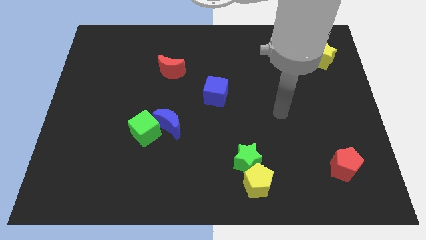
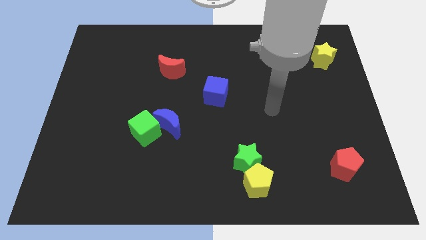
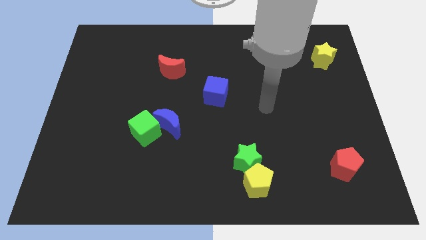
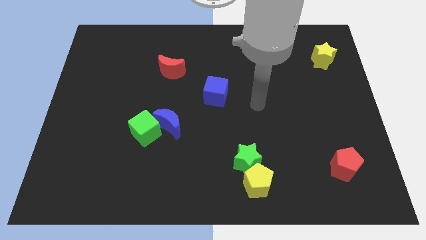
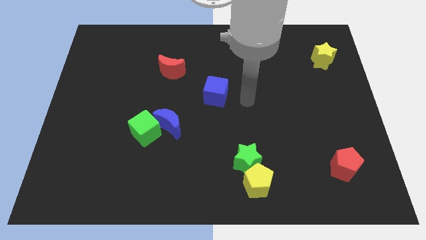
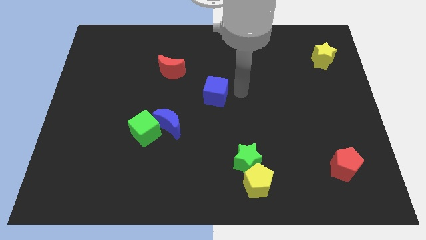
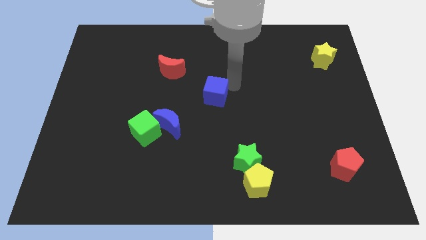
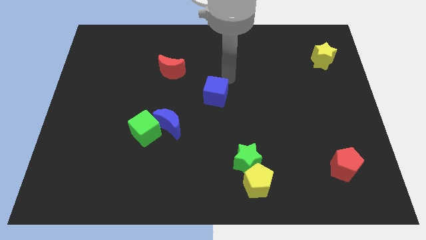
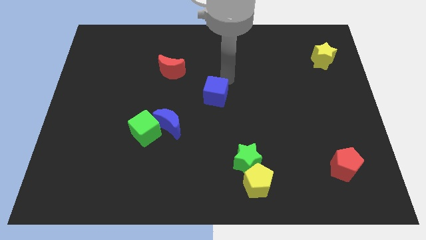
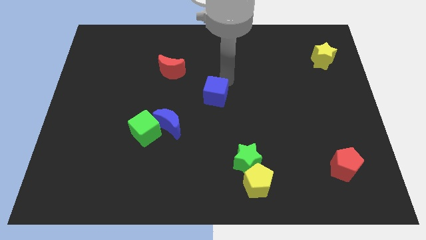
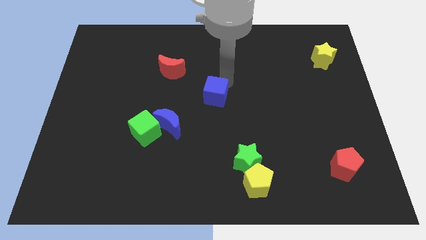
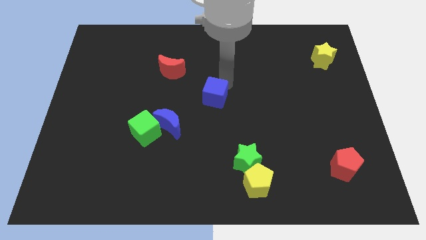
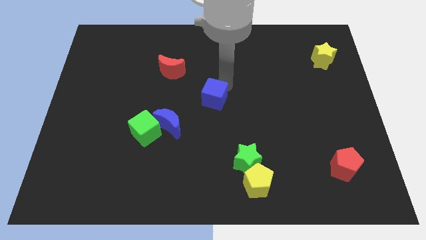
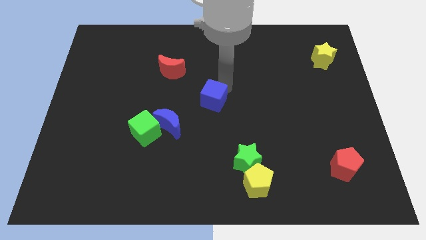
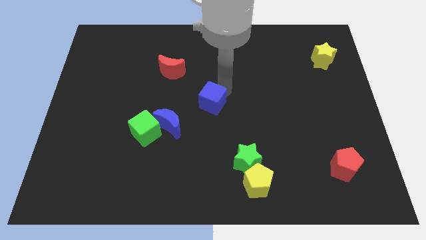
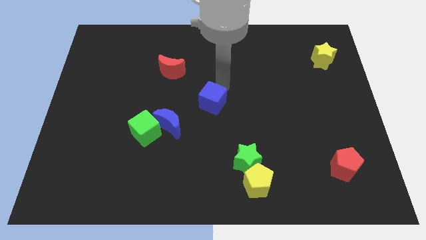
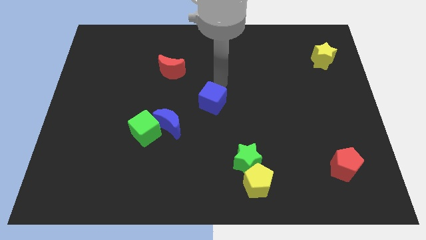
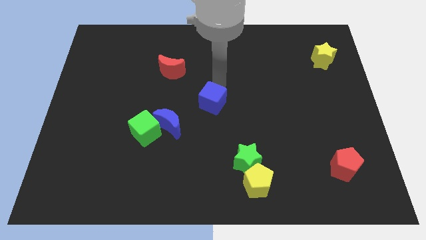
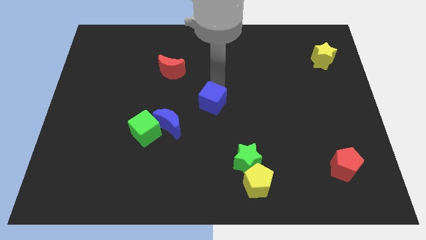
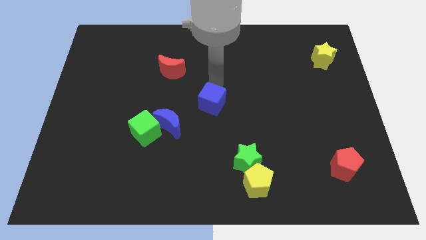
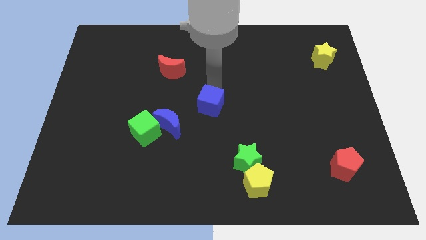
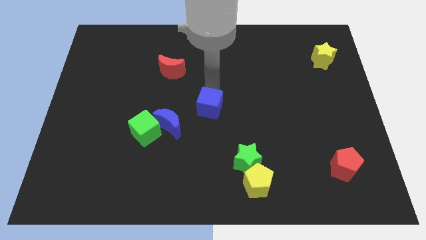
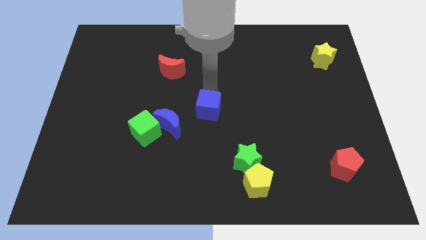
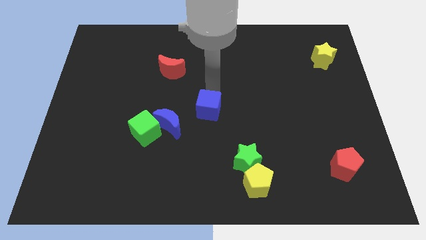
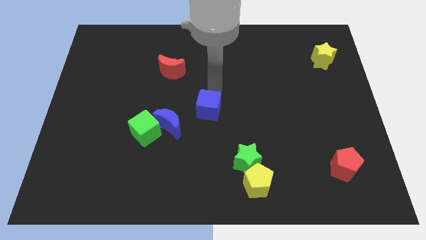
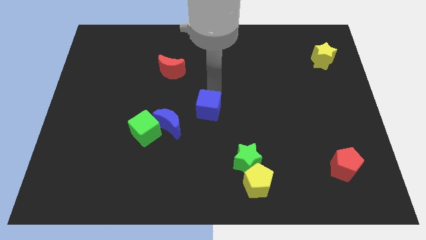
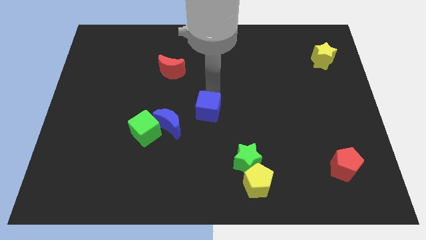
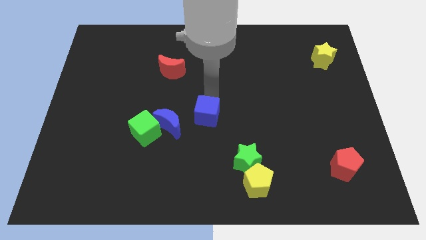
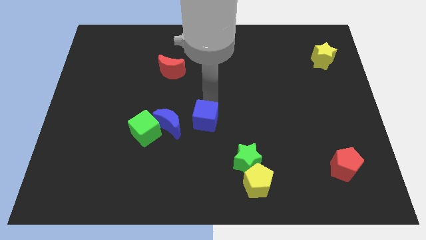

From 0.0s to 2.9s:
slightly move the blue cube downwards

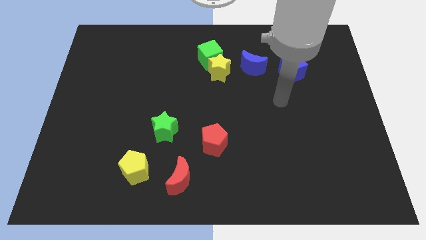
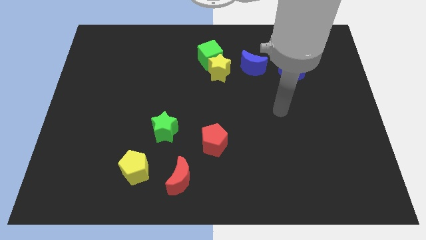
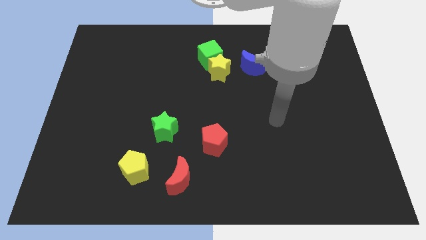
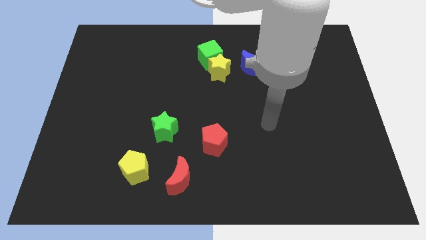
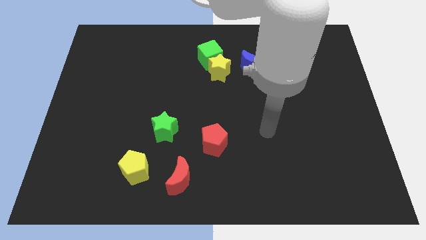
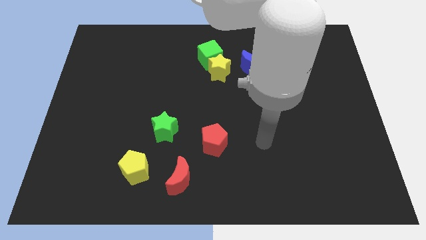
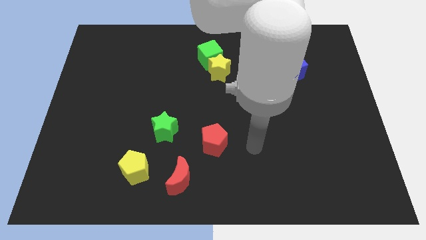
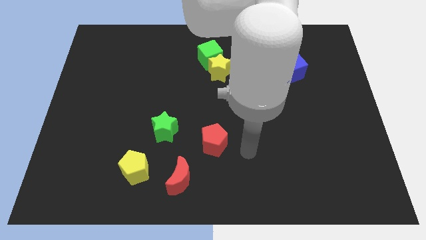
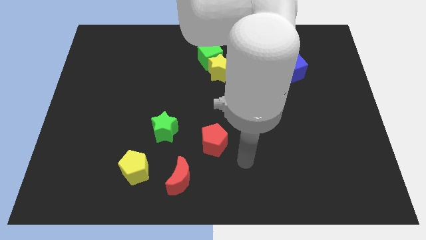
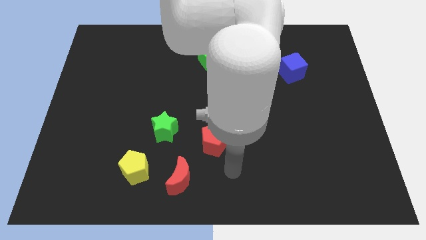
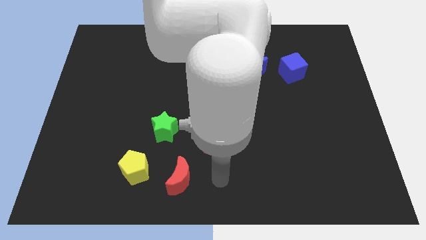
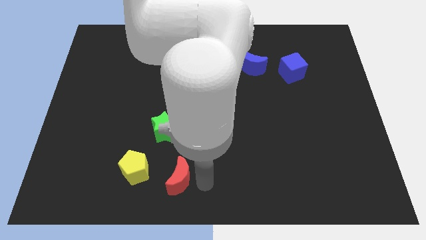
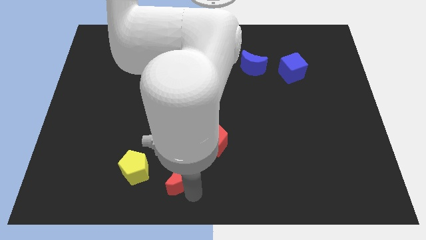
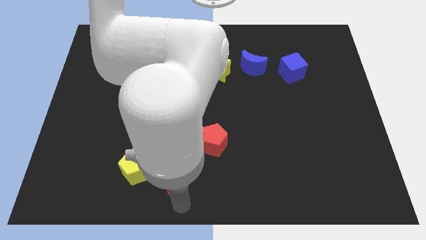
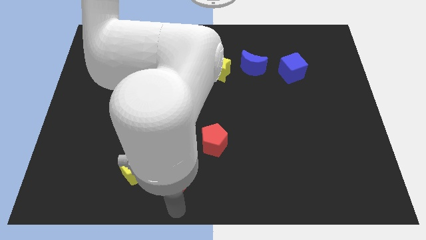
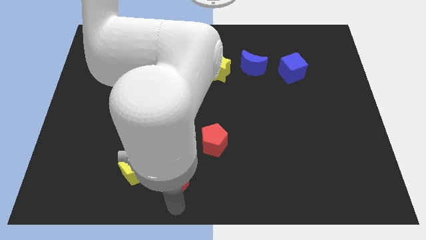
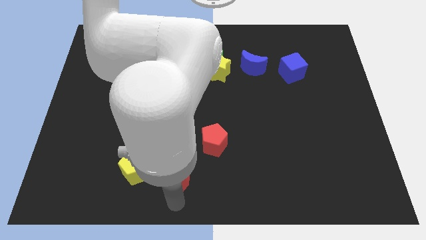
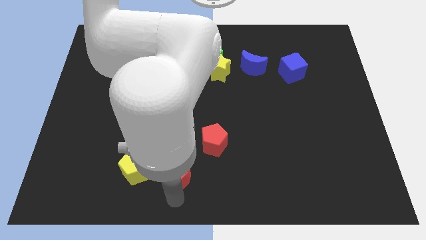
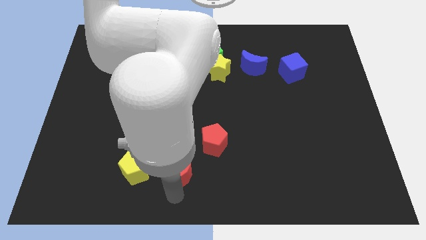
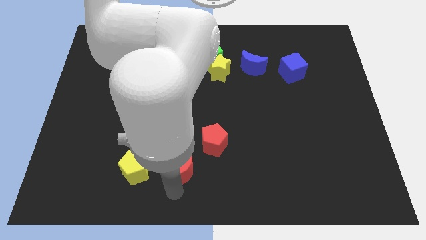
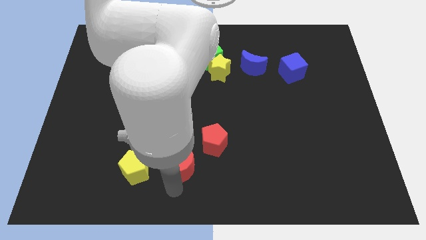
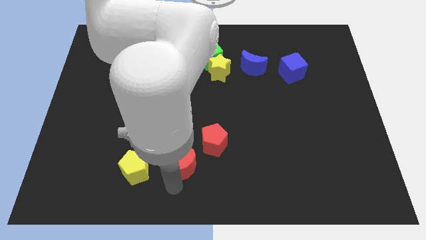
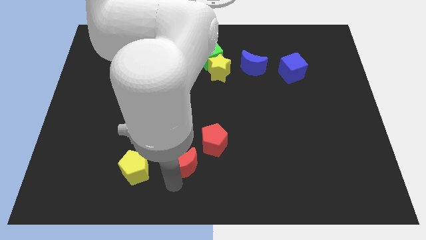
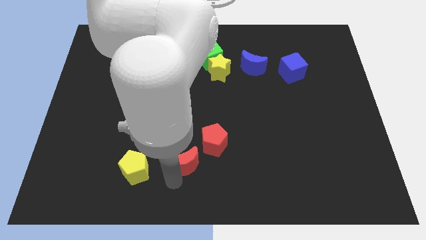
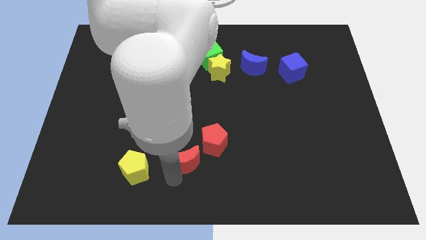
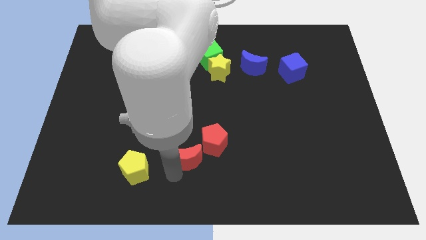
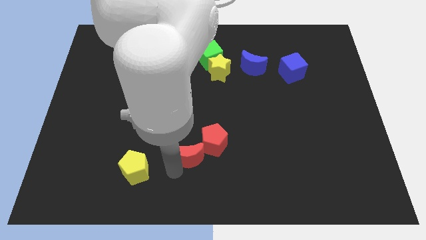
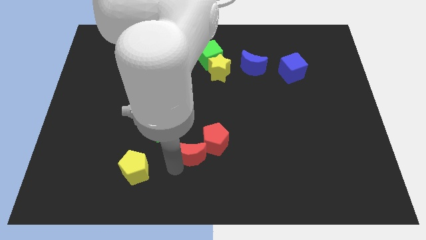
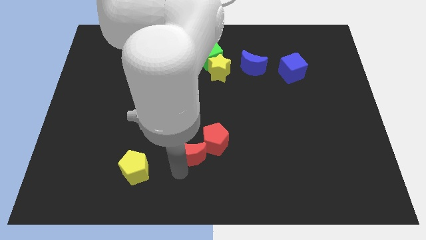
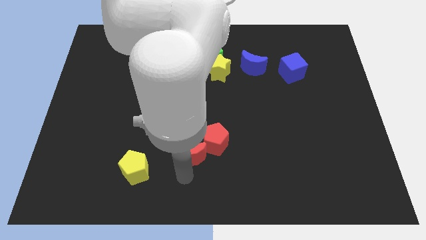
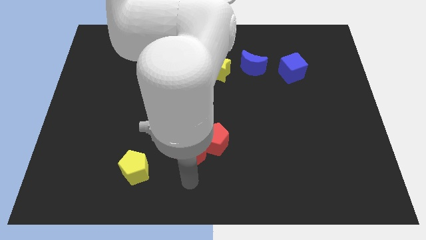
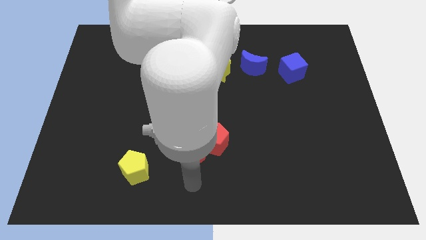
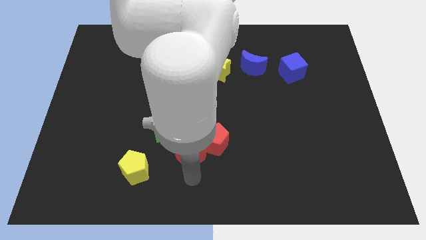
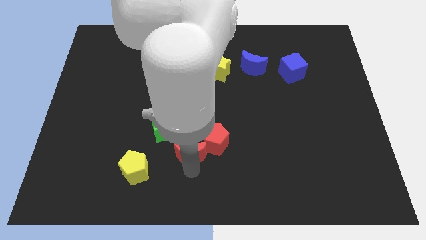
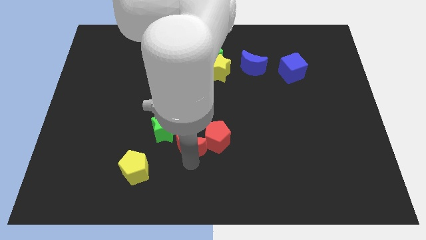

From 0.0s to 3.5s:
slightly push the red moon upwards

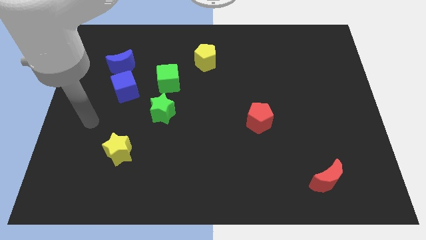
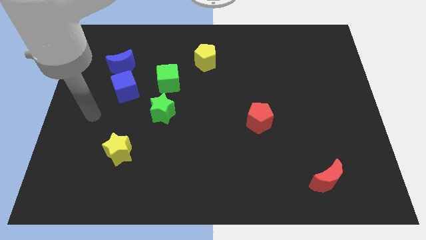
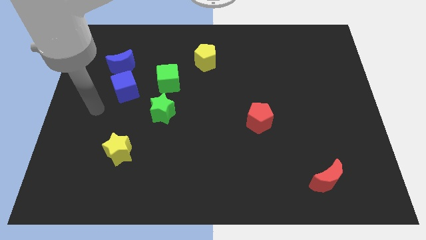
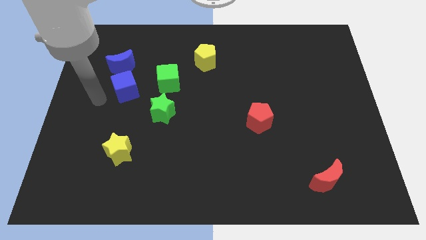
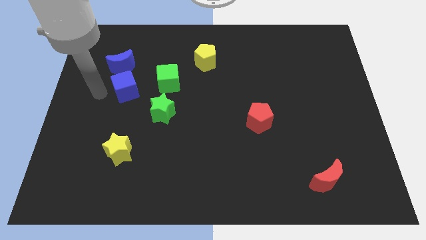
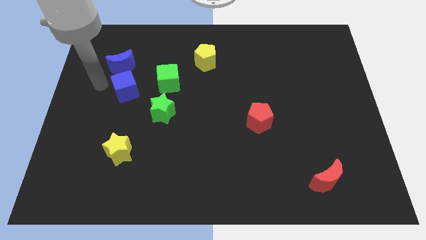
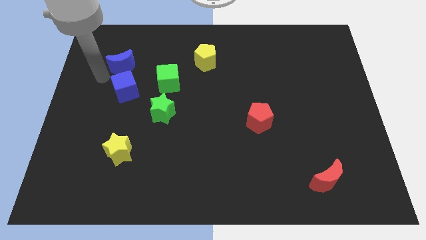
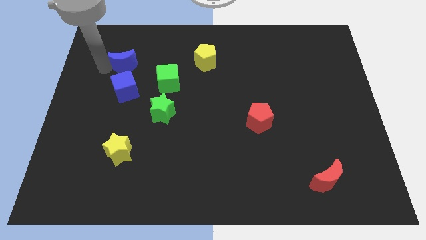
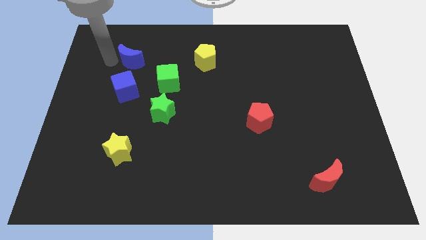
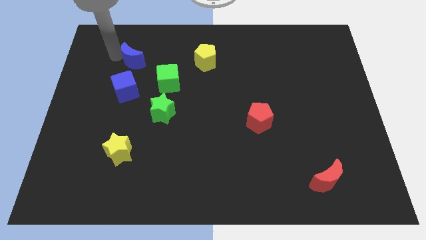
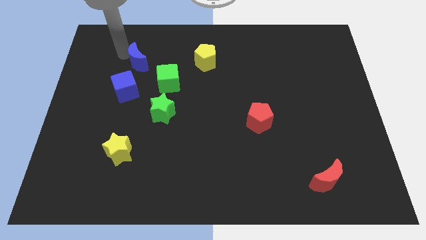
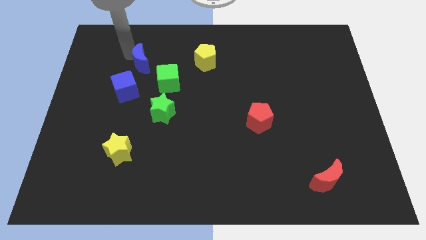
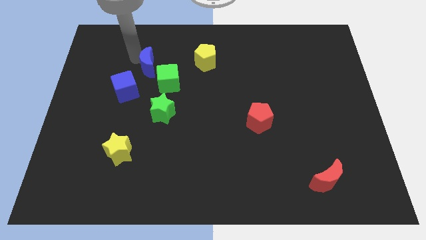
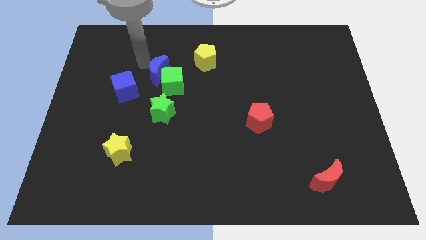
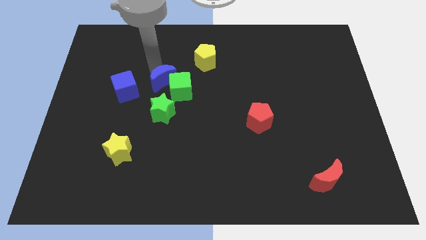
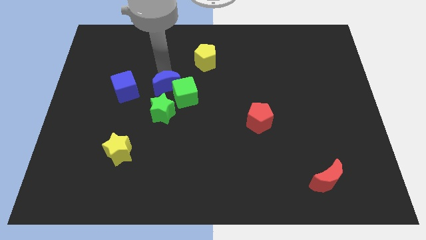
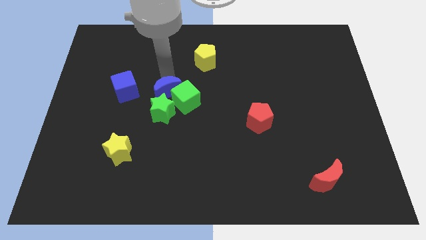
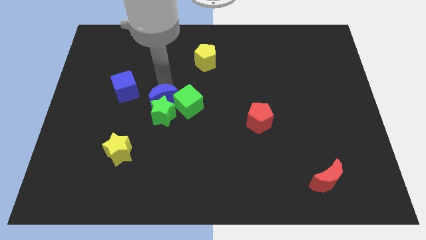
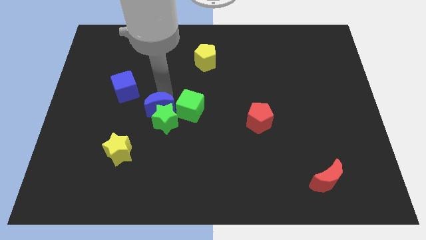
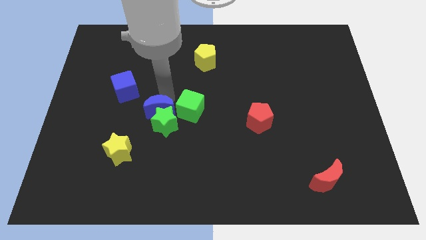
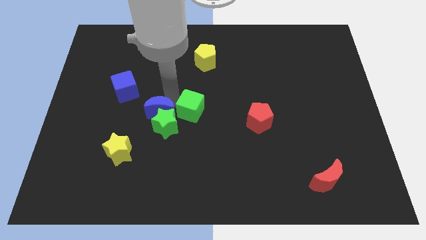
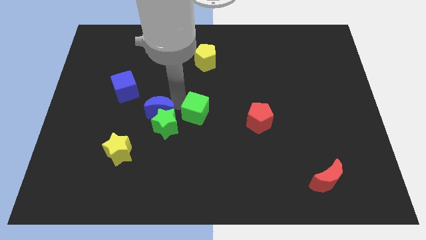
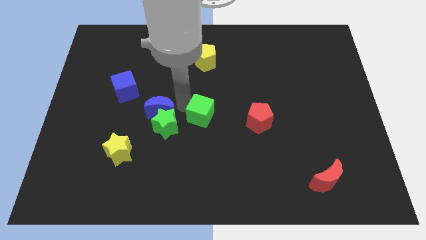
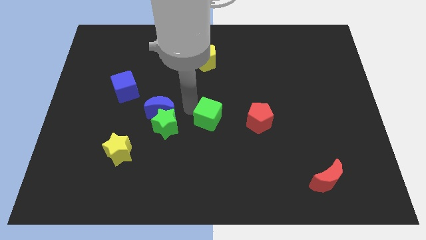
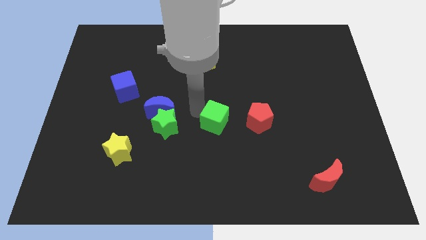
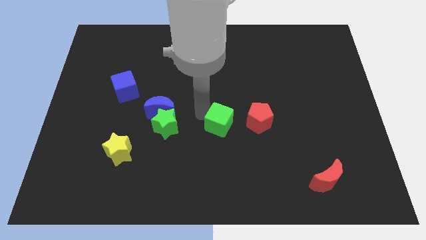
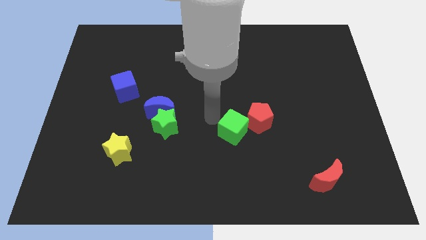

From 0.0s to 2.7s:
push the green cube diagonally downwards and to the right
